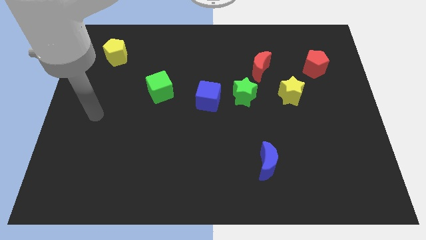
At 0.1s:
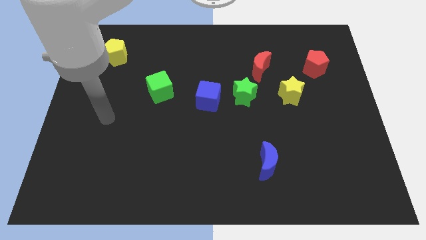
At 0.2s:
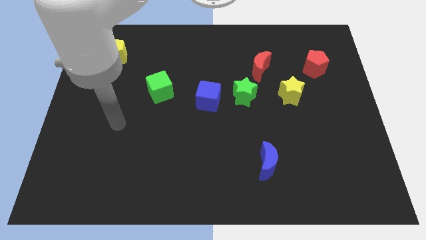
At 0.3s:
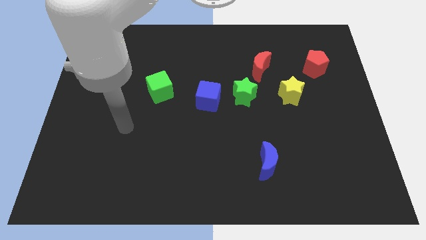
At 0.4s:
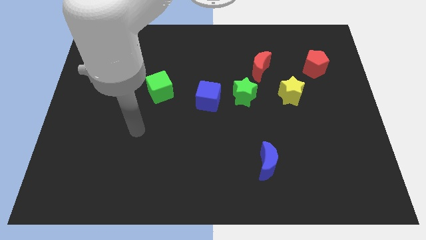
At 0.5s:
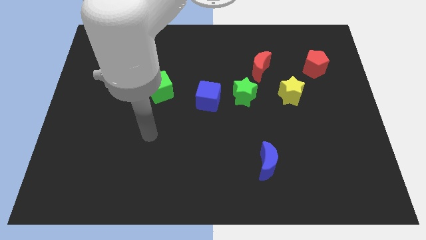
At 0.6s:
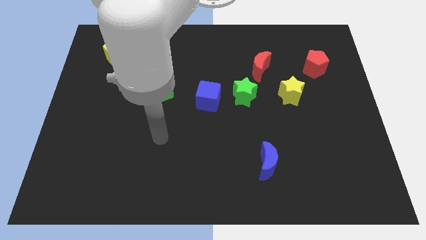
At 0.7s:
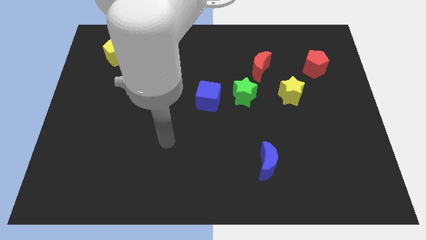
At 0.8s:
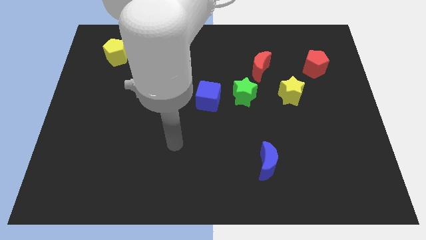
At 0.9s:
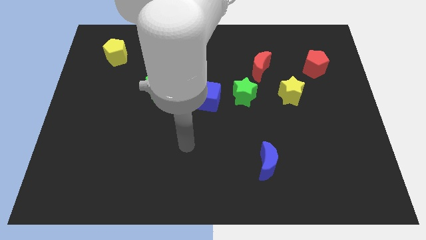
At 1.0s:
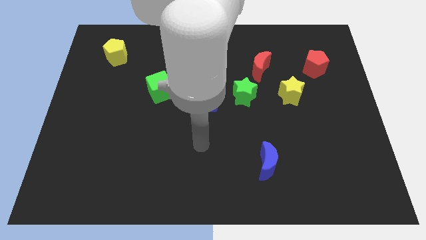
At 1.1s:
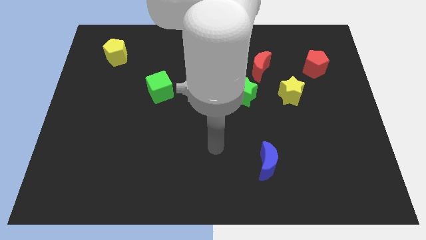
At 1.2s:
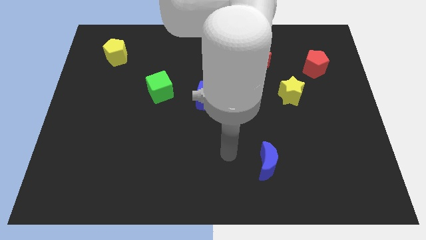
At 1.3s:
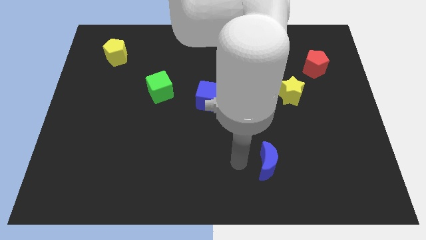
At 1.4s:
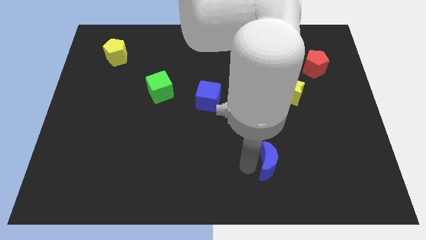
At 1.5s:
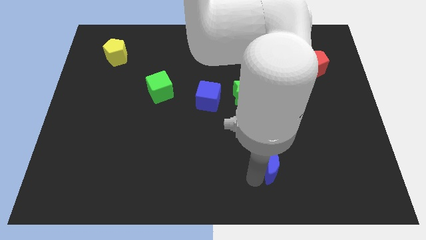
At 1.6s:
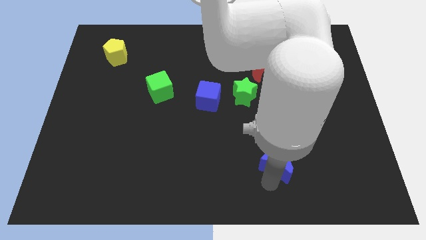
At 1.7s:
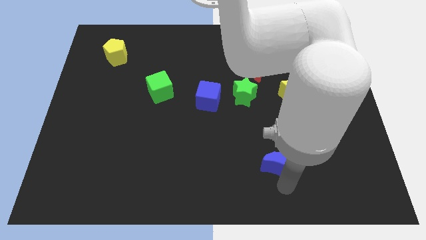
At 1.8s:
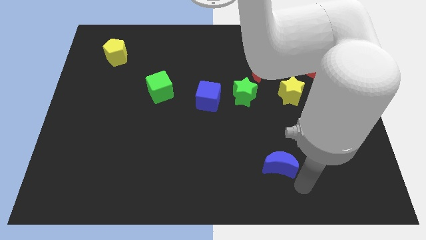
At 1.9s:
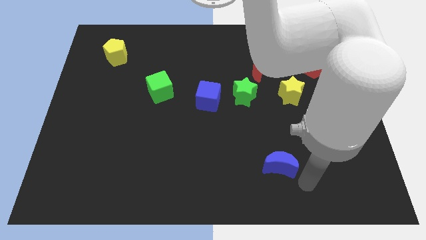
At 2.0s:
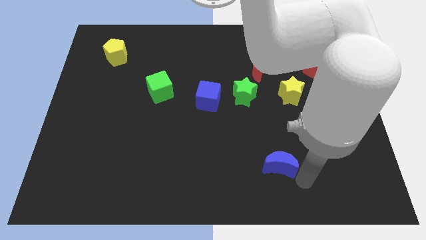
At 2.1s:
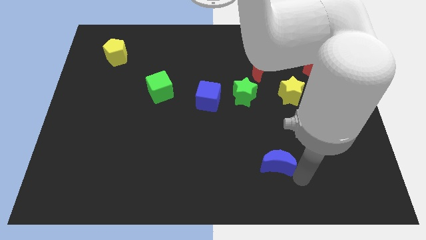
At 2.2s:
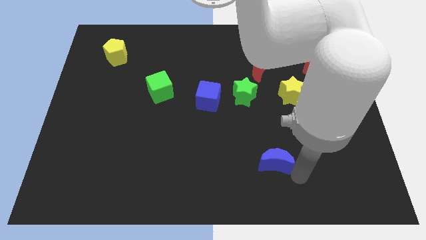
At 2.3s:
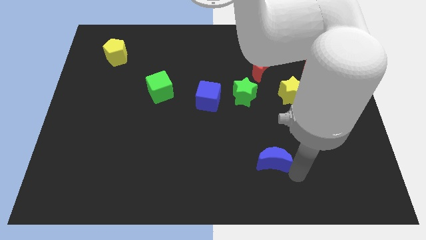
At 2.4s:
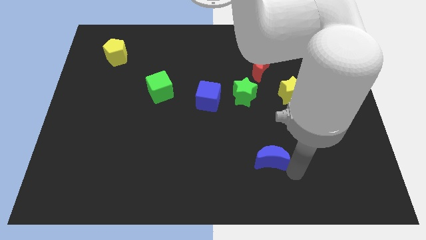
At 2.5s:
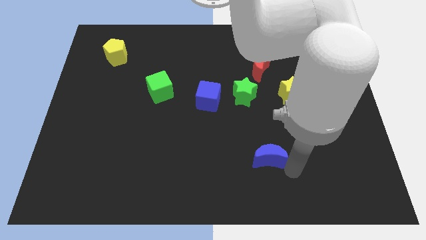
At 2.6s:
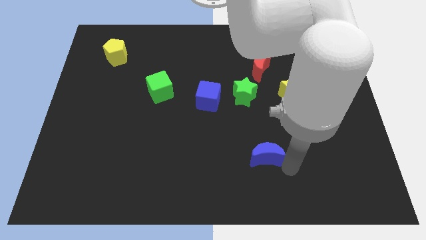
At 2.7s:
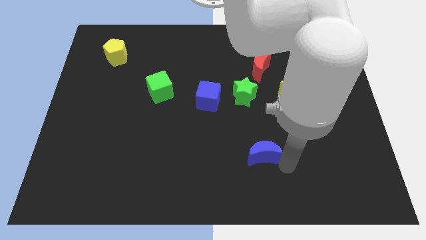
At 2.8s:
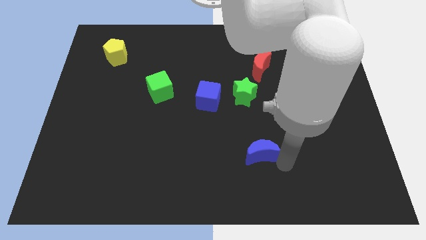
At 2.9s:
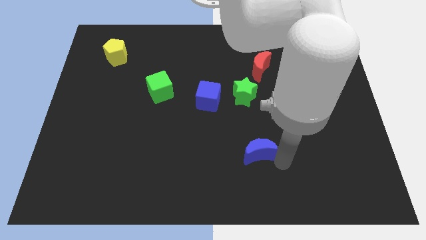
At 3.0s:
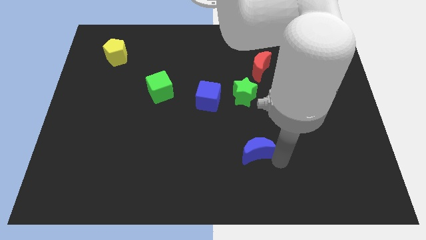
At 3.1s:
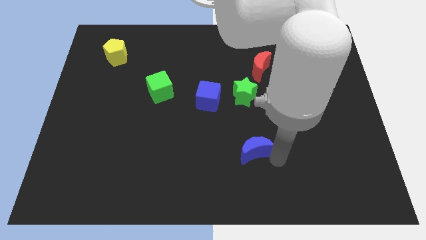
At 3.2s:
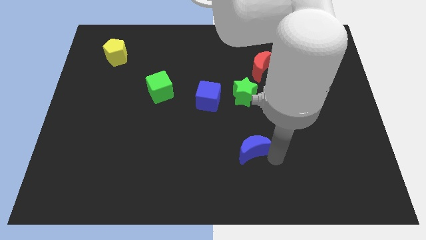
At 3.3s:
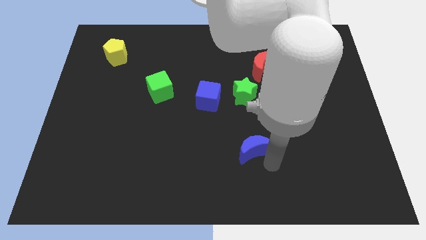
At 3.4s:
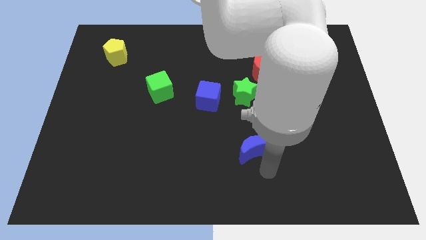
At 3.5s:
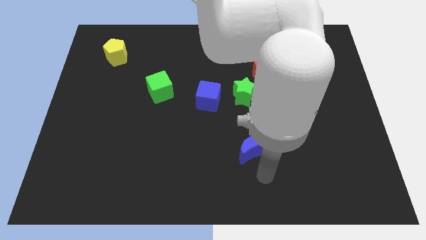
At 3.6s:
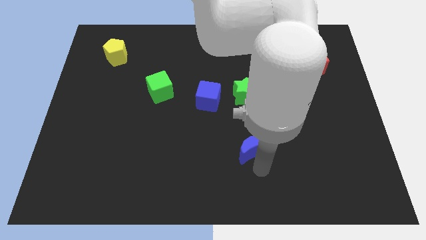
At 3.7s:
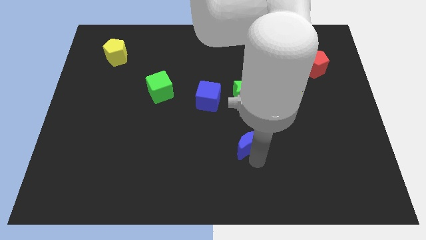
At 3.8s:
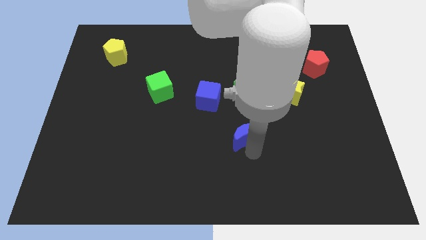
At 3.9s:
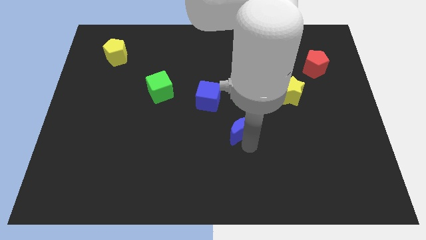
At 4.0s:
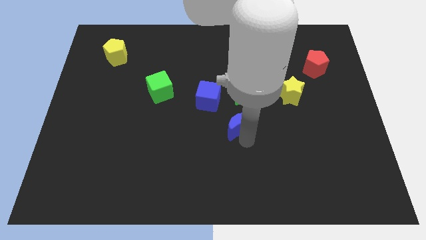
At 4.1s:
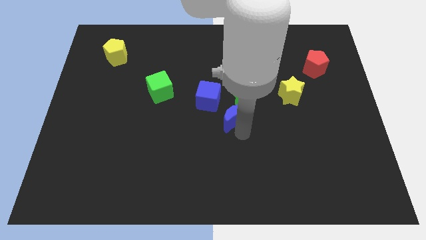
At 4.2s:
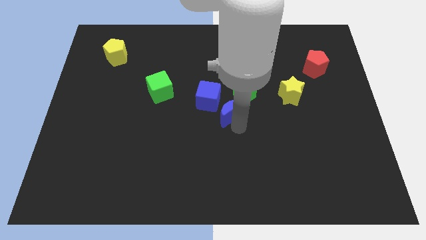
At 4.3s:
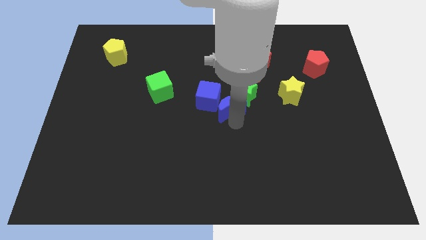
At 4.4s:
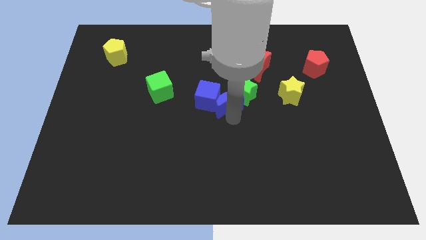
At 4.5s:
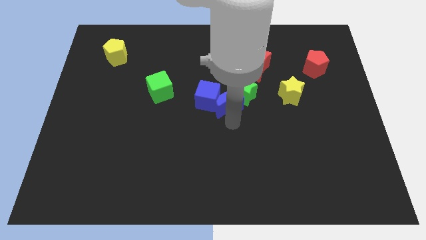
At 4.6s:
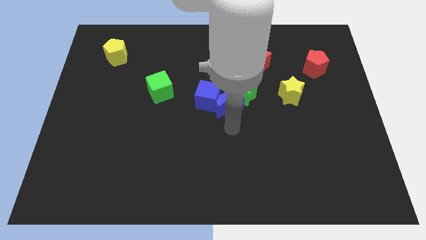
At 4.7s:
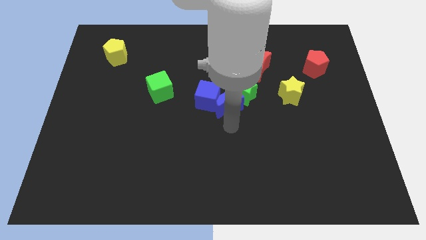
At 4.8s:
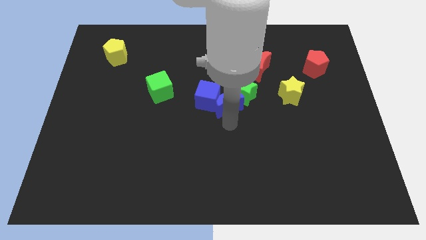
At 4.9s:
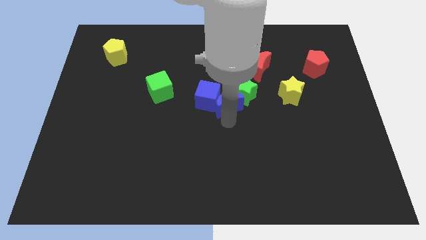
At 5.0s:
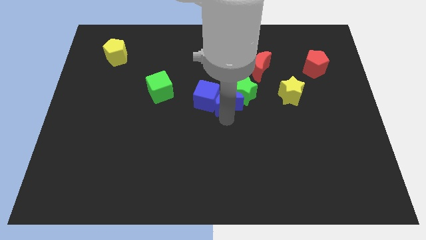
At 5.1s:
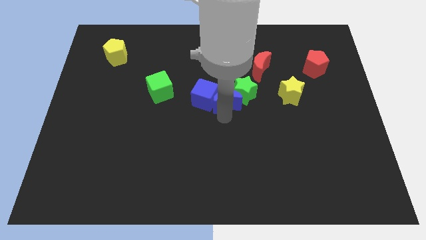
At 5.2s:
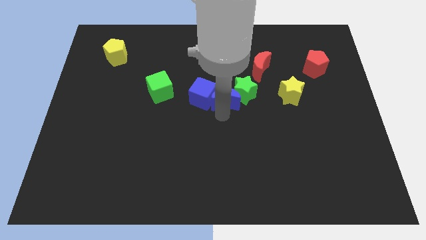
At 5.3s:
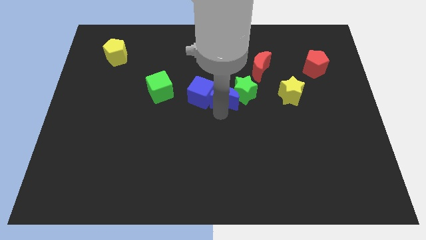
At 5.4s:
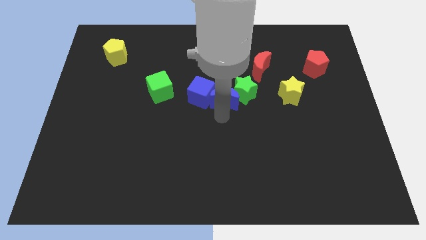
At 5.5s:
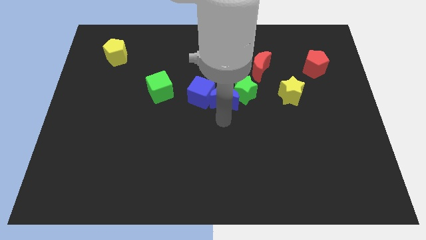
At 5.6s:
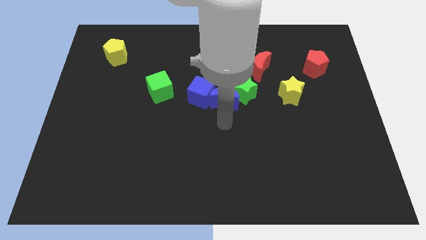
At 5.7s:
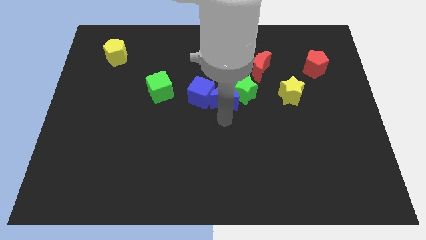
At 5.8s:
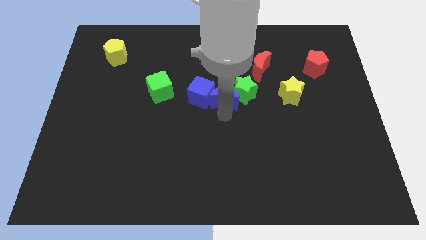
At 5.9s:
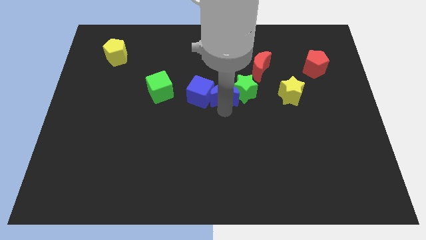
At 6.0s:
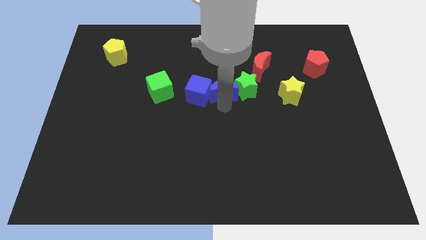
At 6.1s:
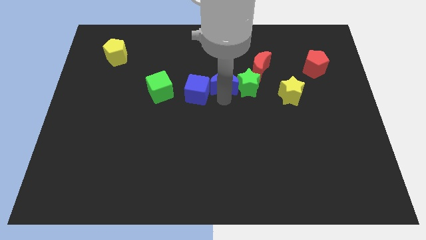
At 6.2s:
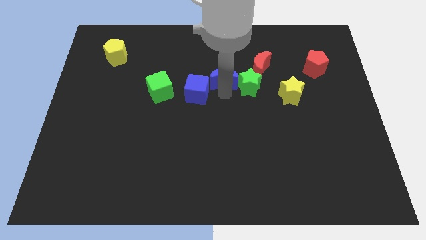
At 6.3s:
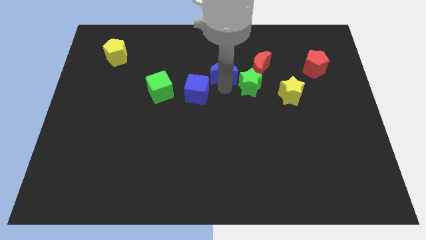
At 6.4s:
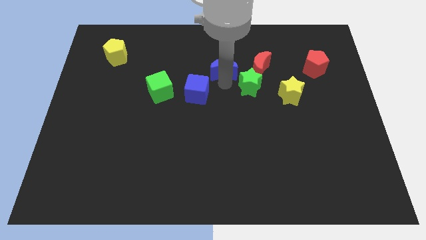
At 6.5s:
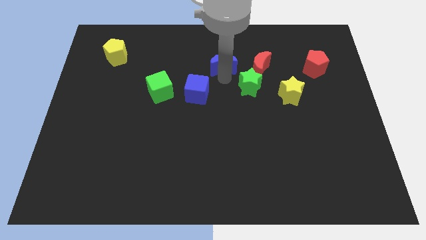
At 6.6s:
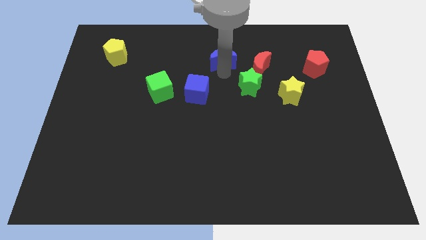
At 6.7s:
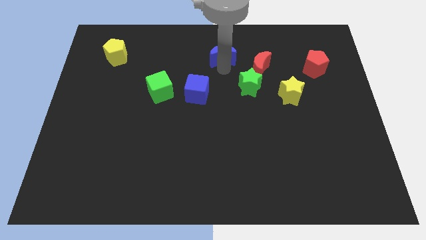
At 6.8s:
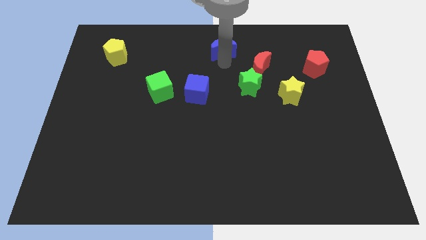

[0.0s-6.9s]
push the blue moon to the top side
